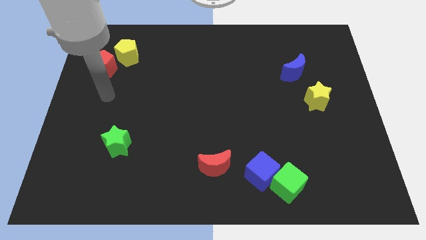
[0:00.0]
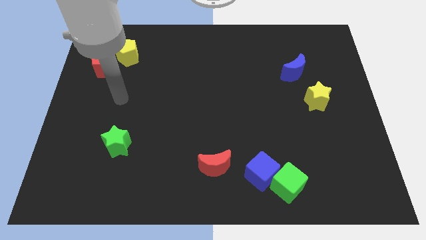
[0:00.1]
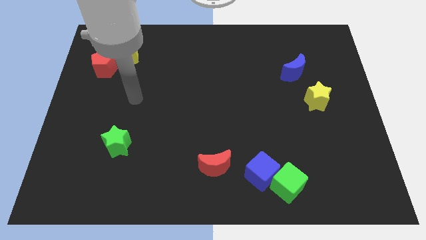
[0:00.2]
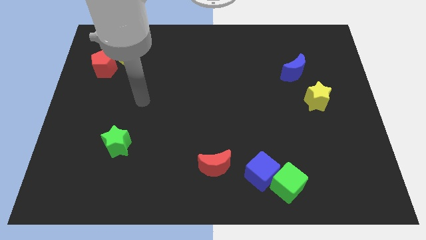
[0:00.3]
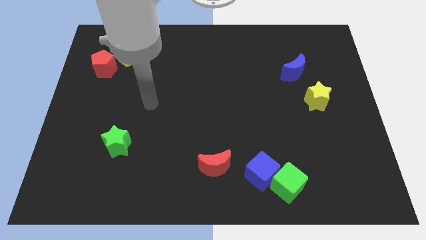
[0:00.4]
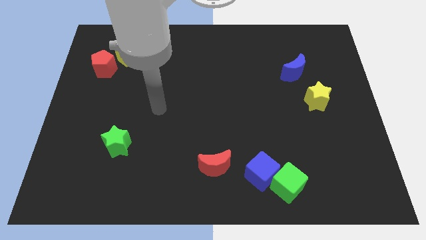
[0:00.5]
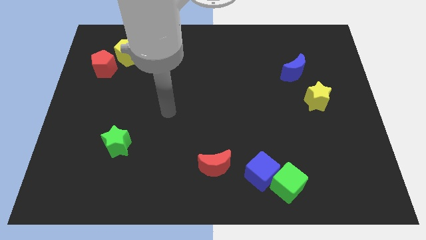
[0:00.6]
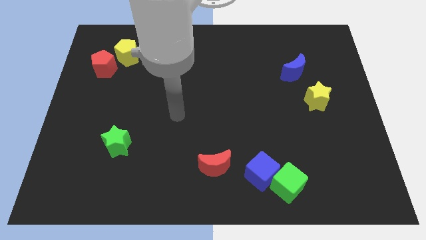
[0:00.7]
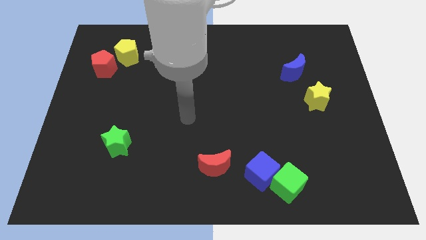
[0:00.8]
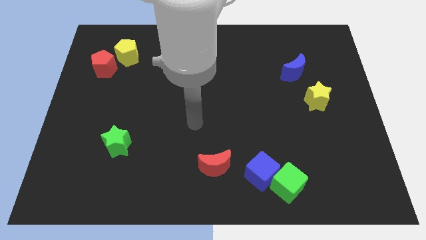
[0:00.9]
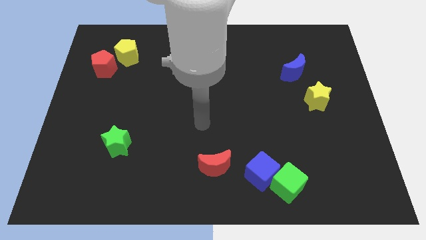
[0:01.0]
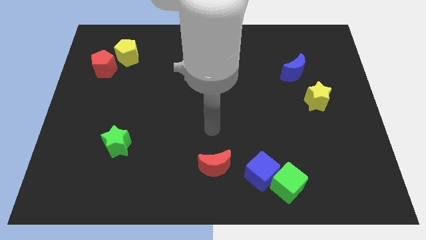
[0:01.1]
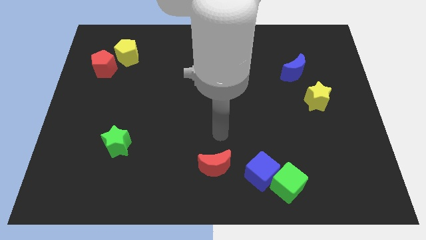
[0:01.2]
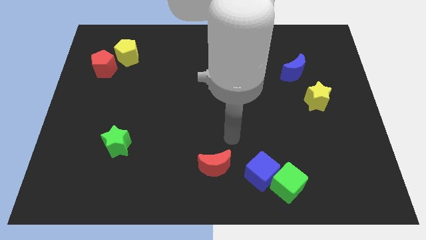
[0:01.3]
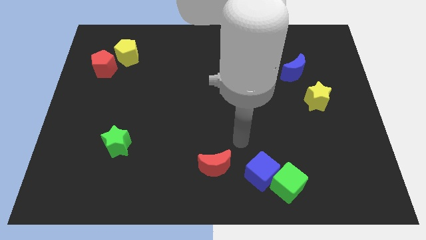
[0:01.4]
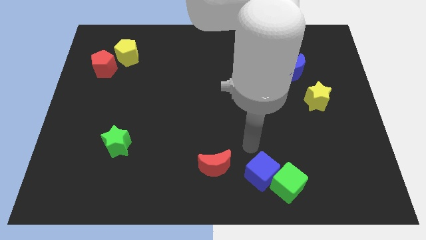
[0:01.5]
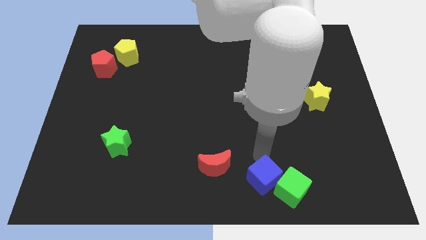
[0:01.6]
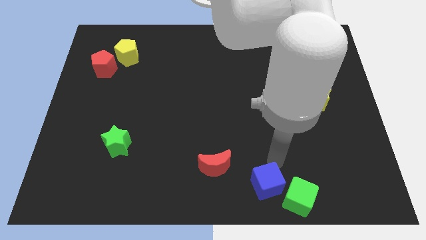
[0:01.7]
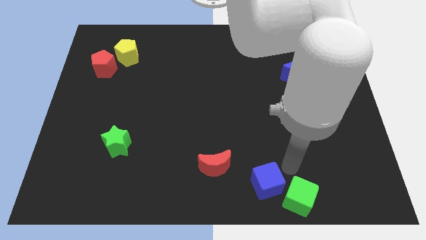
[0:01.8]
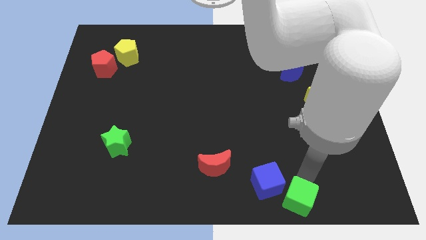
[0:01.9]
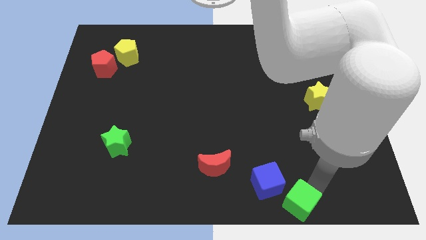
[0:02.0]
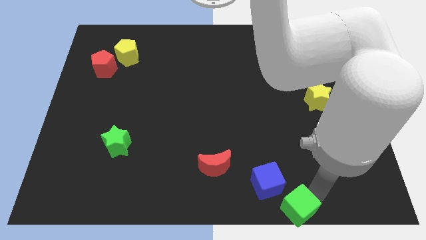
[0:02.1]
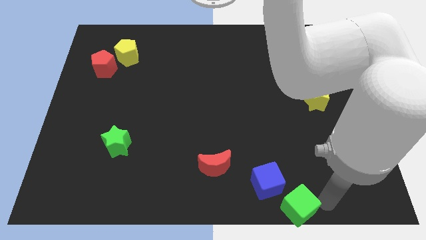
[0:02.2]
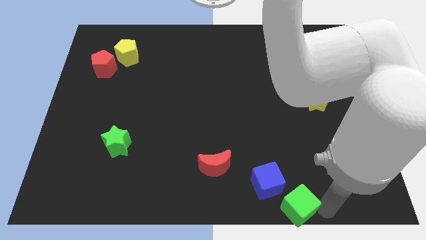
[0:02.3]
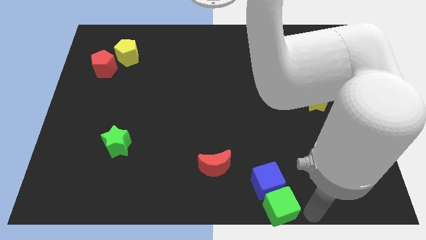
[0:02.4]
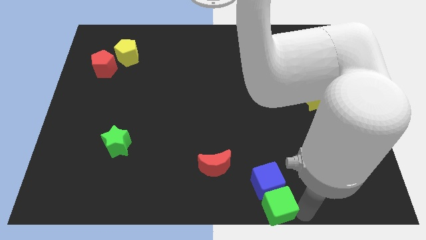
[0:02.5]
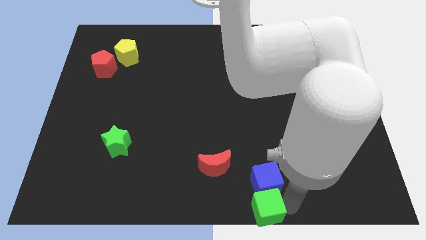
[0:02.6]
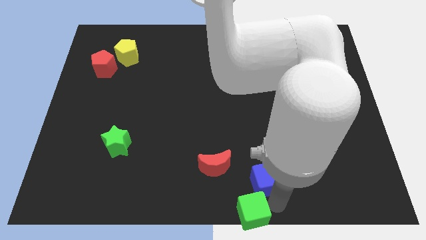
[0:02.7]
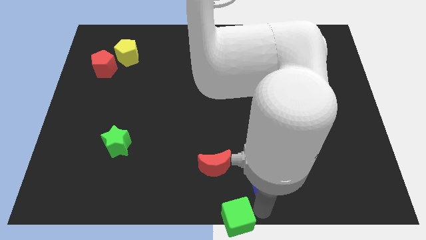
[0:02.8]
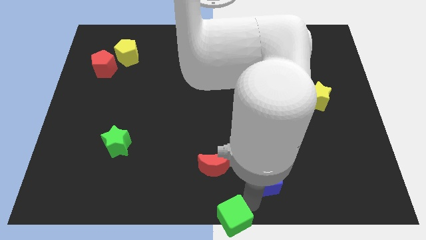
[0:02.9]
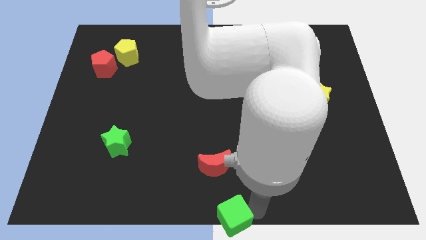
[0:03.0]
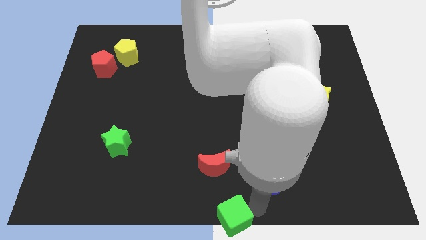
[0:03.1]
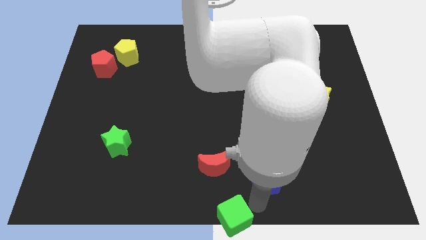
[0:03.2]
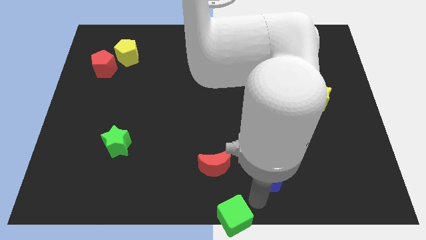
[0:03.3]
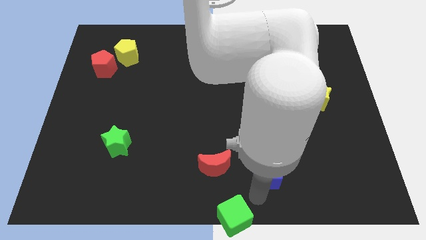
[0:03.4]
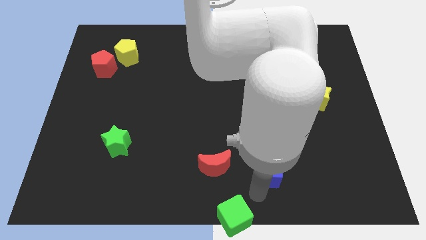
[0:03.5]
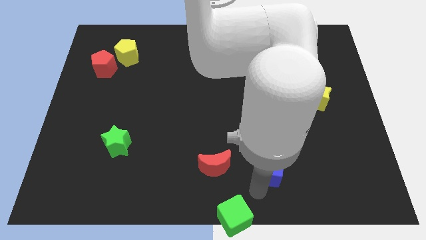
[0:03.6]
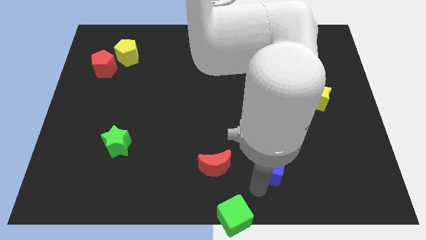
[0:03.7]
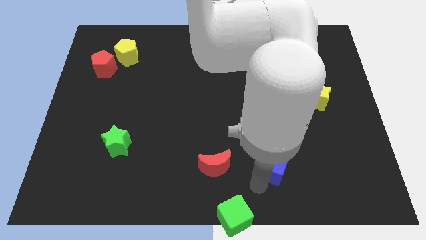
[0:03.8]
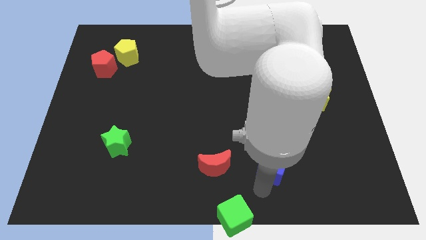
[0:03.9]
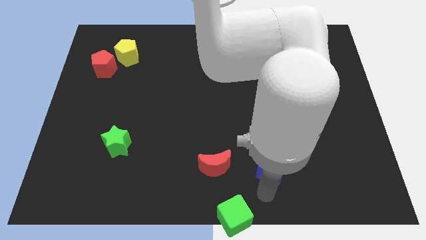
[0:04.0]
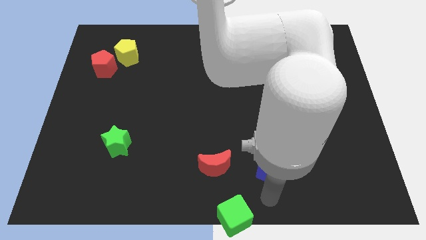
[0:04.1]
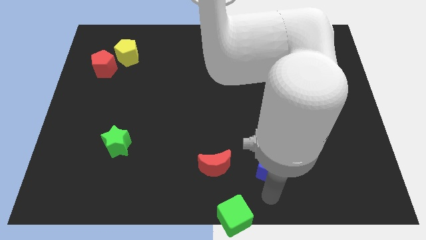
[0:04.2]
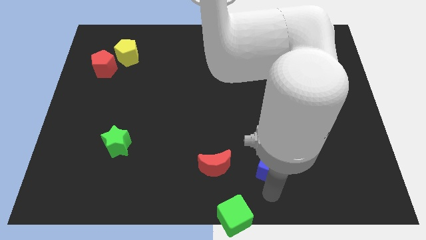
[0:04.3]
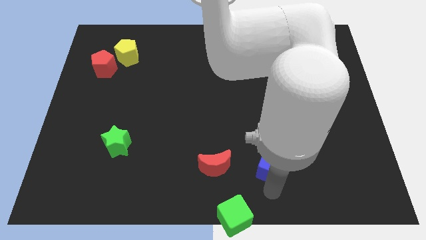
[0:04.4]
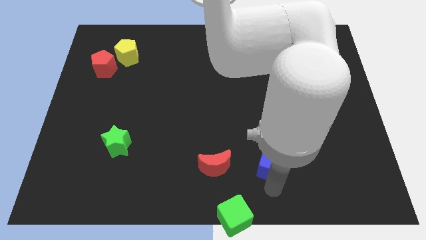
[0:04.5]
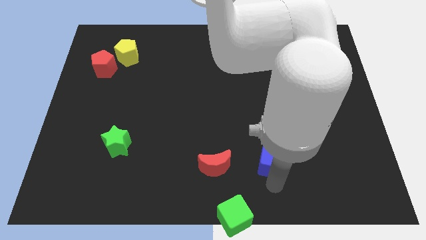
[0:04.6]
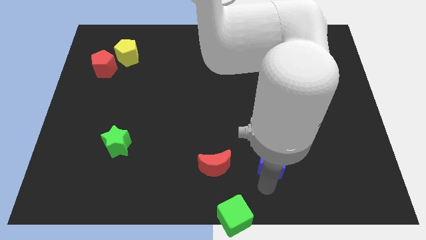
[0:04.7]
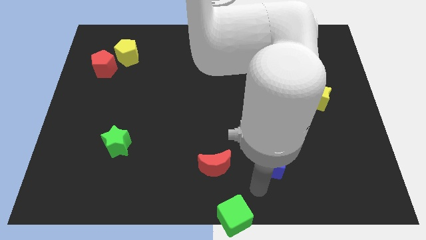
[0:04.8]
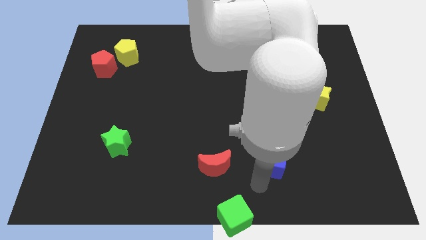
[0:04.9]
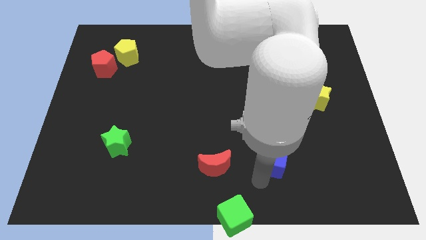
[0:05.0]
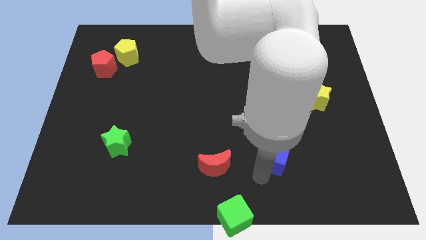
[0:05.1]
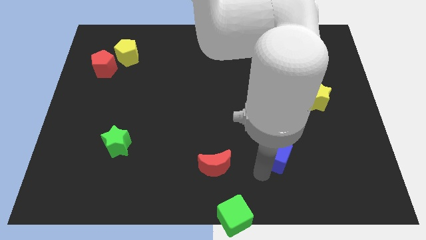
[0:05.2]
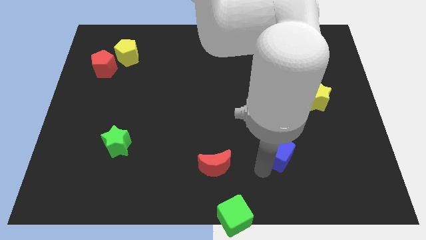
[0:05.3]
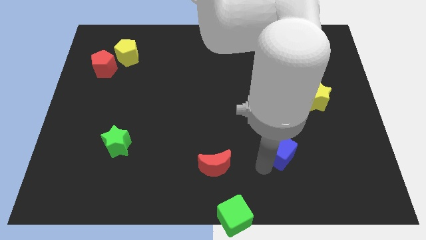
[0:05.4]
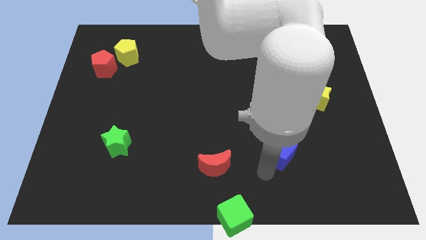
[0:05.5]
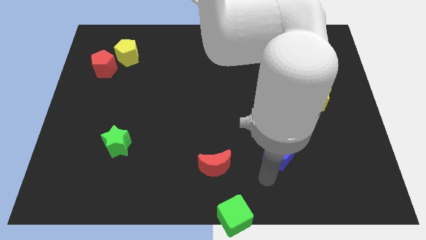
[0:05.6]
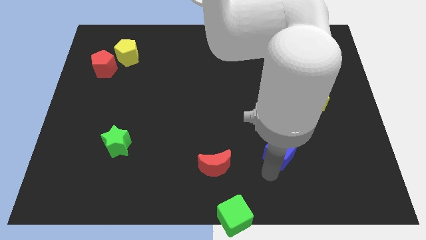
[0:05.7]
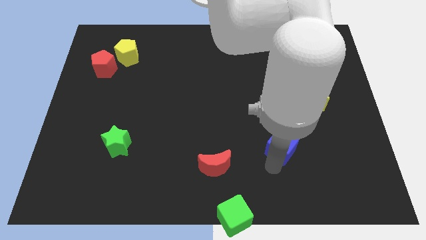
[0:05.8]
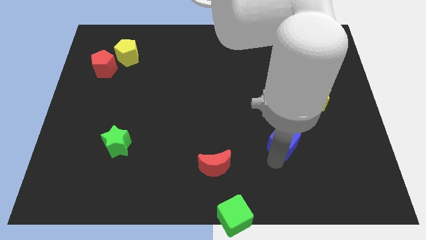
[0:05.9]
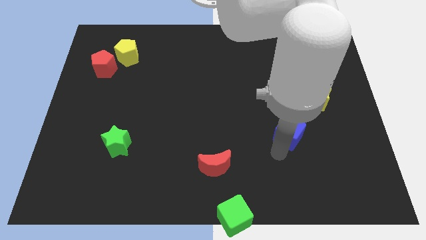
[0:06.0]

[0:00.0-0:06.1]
put the blue cube diagonally down and to the left of the yellow star

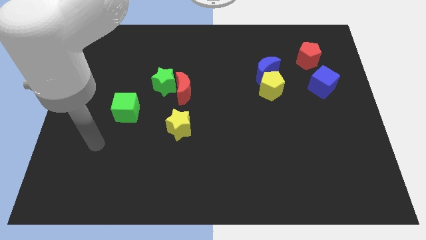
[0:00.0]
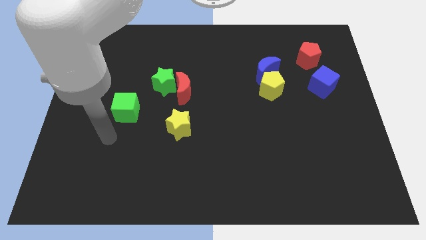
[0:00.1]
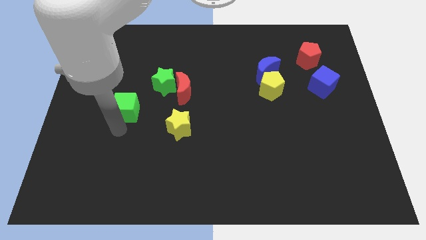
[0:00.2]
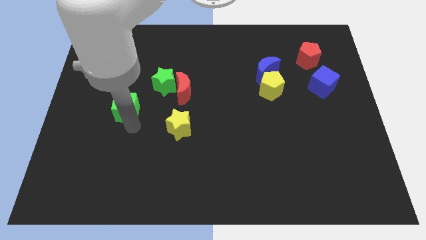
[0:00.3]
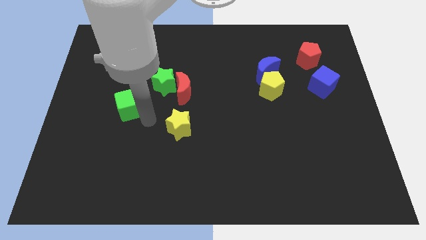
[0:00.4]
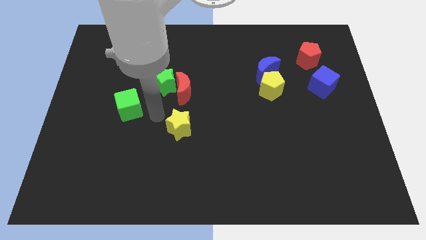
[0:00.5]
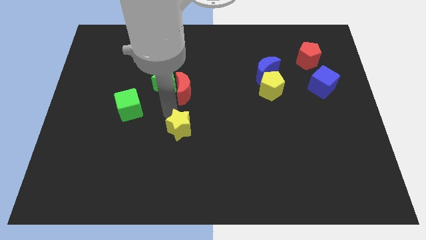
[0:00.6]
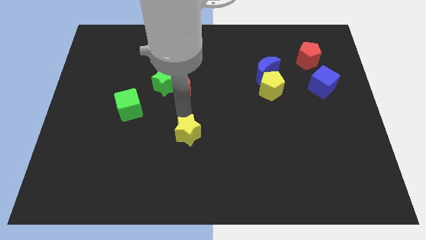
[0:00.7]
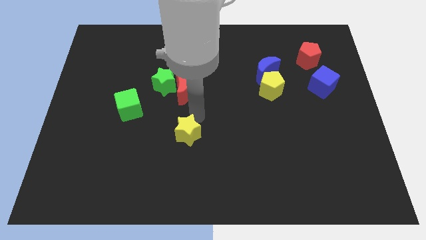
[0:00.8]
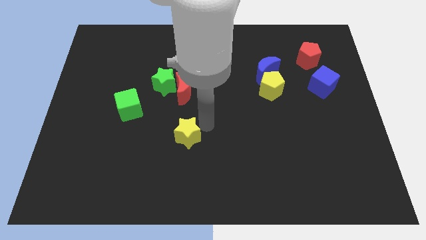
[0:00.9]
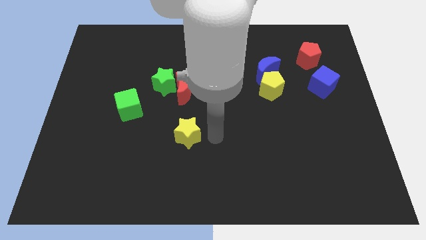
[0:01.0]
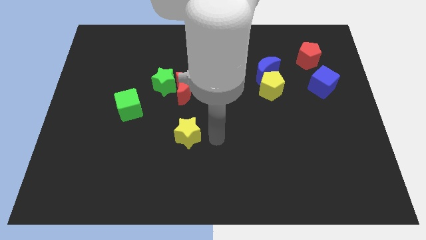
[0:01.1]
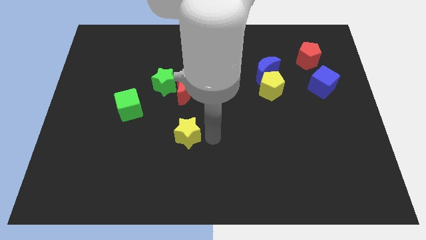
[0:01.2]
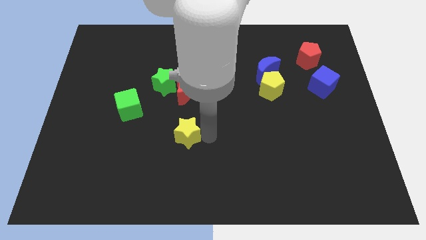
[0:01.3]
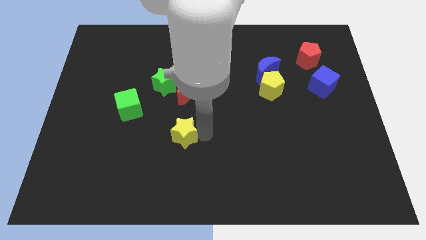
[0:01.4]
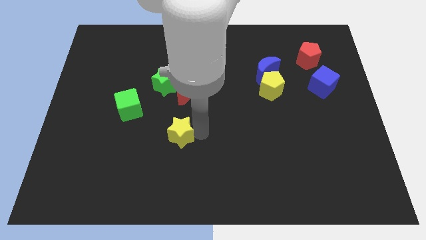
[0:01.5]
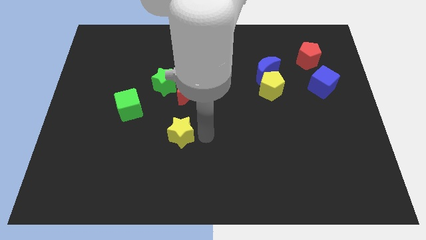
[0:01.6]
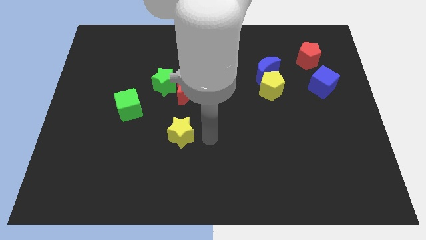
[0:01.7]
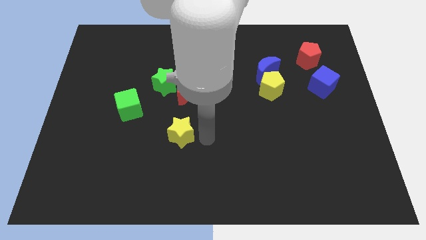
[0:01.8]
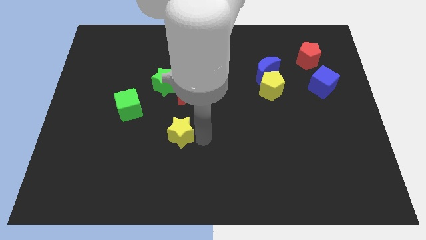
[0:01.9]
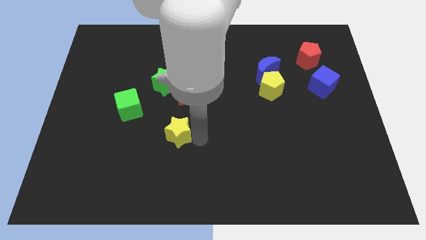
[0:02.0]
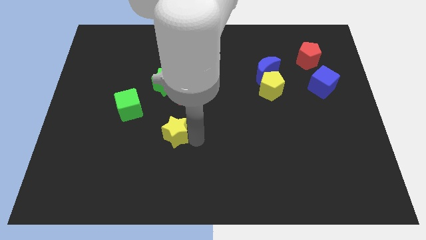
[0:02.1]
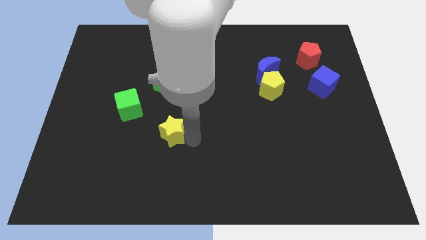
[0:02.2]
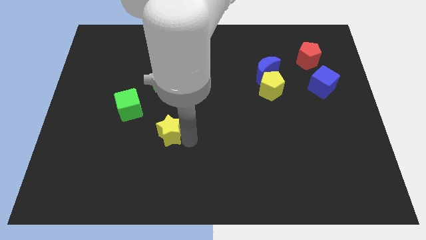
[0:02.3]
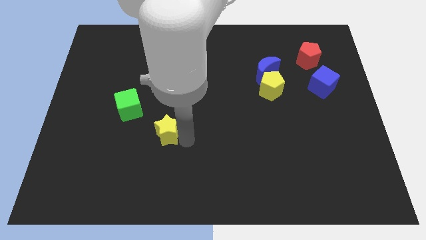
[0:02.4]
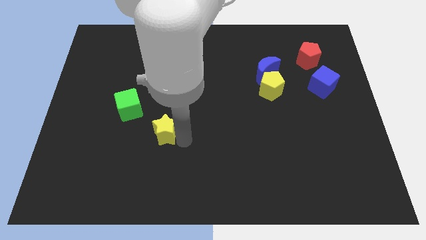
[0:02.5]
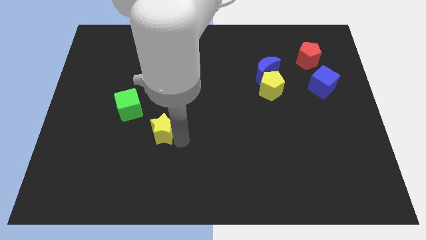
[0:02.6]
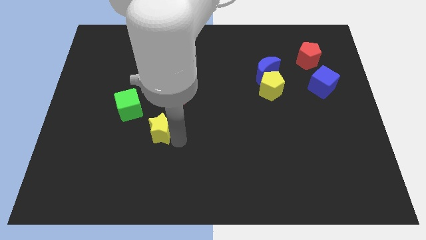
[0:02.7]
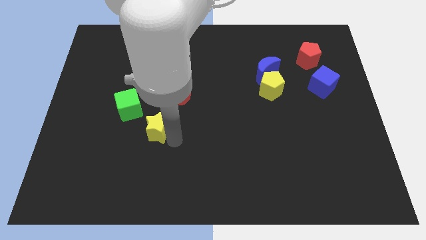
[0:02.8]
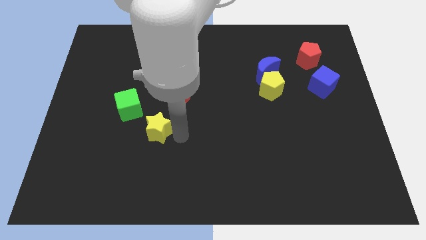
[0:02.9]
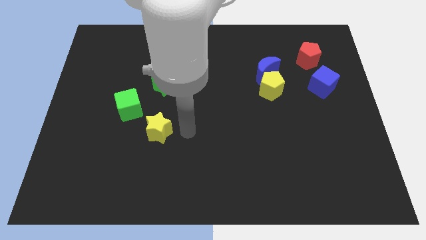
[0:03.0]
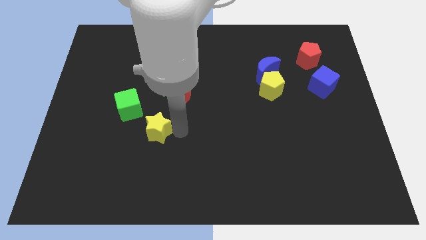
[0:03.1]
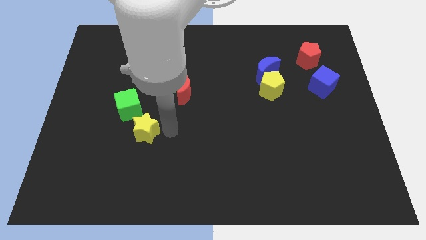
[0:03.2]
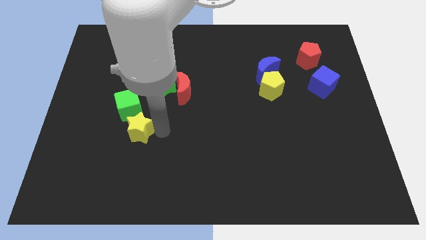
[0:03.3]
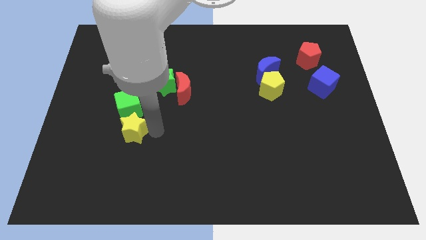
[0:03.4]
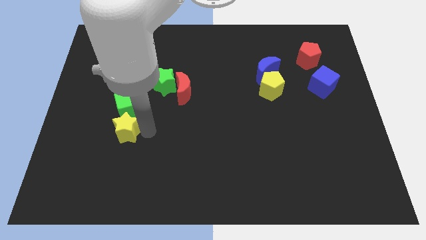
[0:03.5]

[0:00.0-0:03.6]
push the yellow star diagonally down and to the left of the green cube
